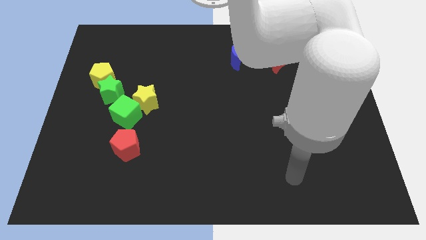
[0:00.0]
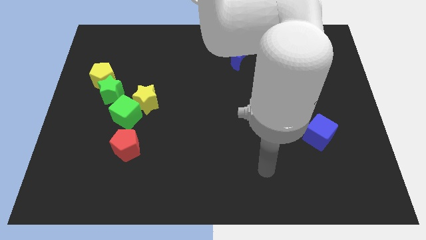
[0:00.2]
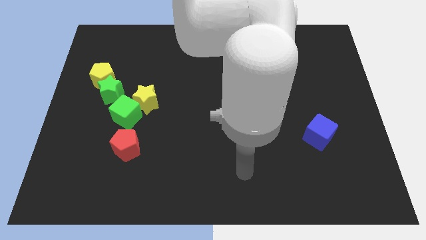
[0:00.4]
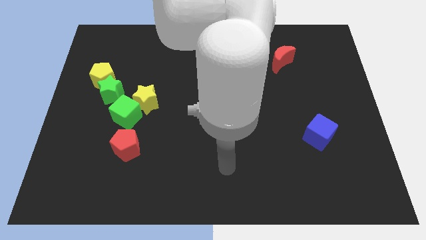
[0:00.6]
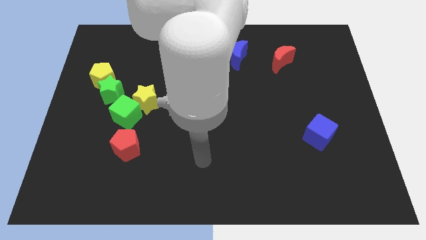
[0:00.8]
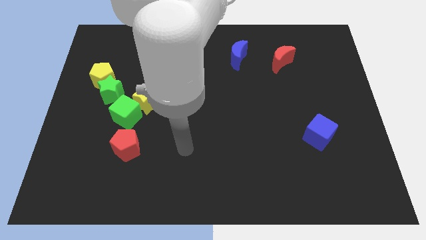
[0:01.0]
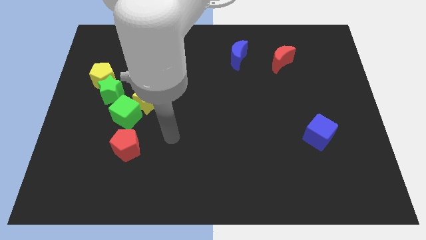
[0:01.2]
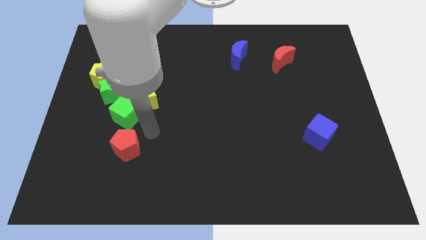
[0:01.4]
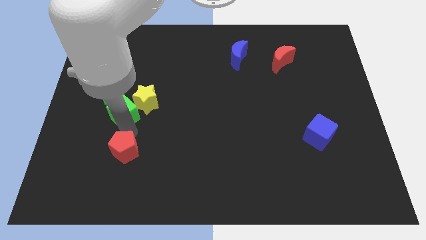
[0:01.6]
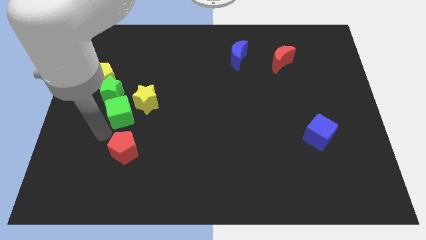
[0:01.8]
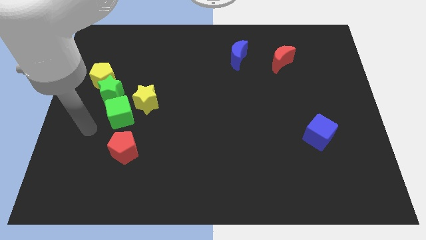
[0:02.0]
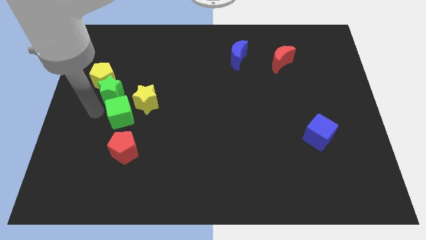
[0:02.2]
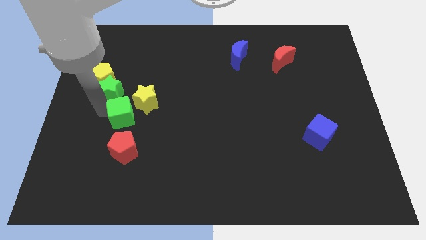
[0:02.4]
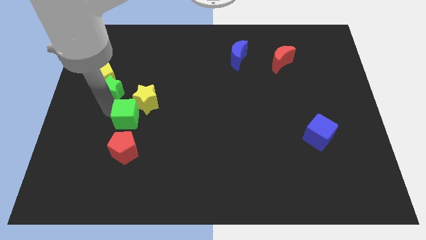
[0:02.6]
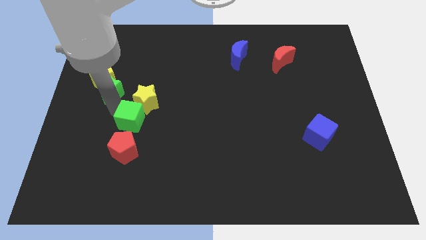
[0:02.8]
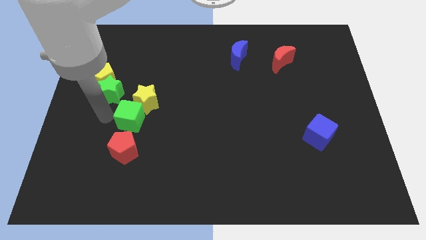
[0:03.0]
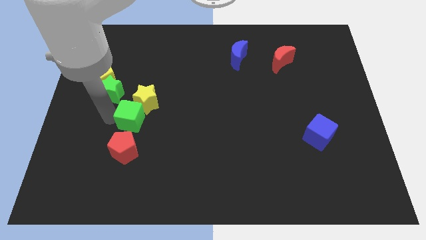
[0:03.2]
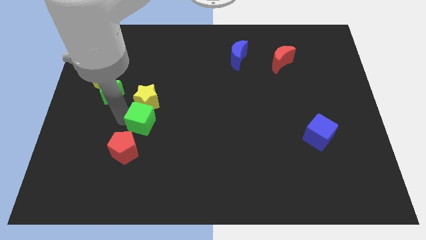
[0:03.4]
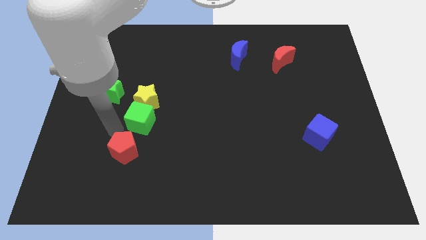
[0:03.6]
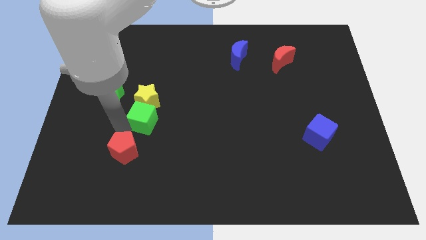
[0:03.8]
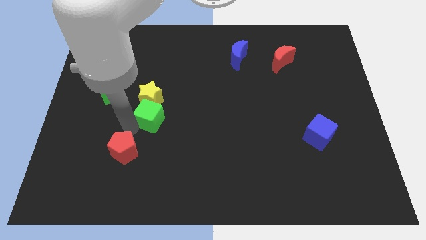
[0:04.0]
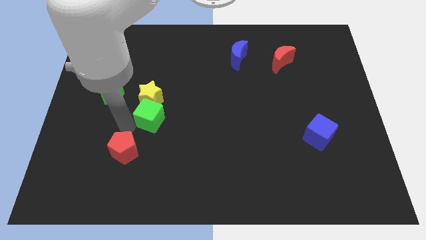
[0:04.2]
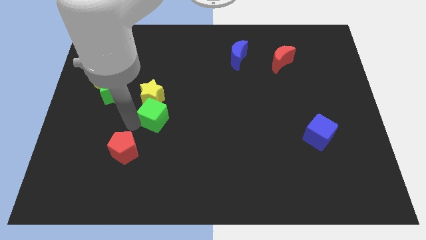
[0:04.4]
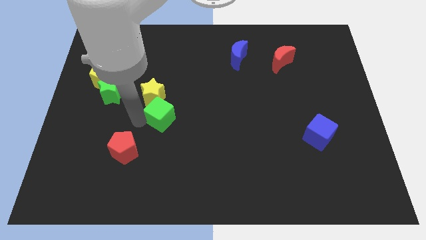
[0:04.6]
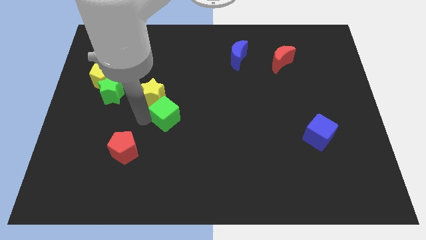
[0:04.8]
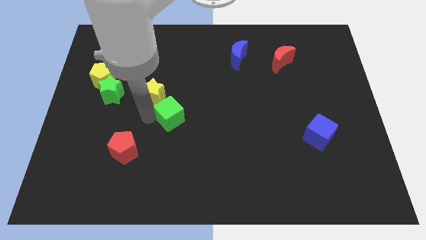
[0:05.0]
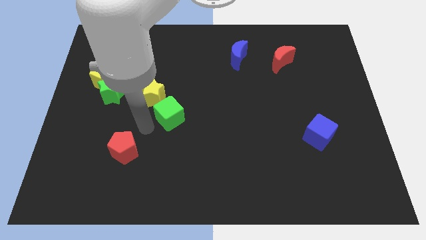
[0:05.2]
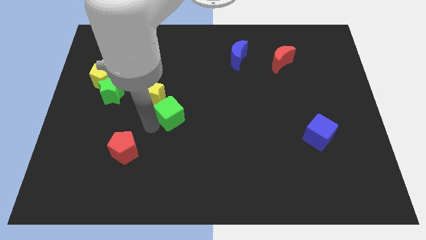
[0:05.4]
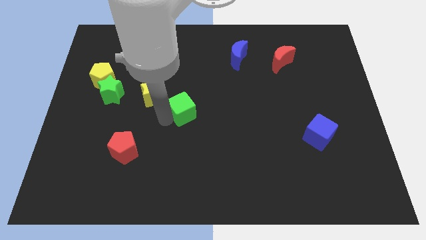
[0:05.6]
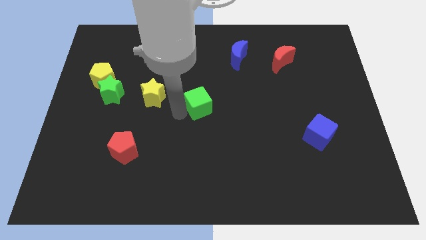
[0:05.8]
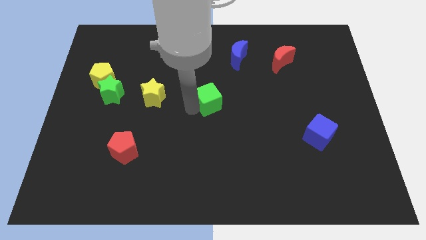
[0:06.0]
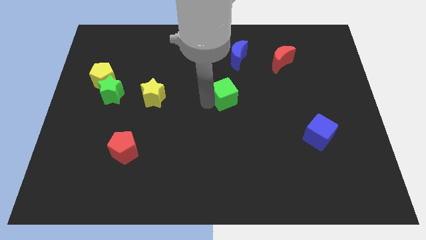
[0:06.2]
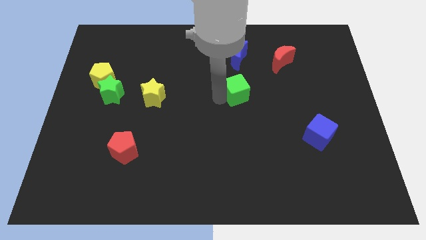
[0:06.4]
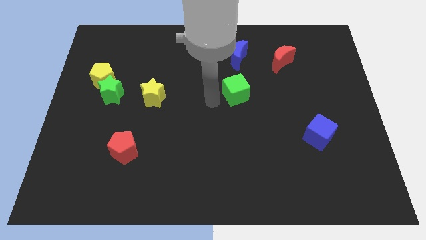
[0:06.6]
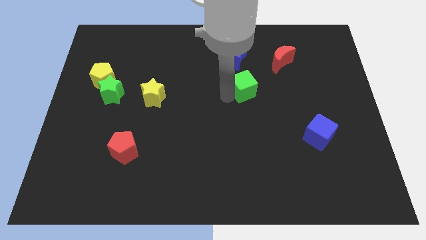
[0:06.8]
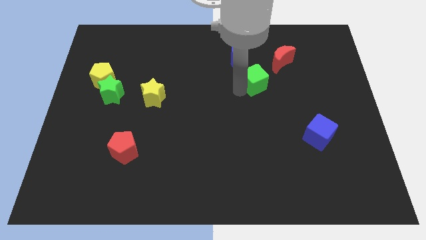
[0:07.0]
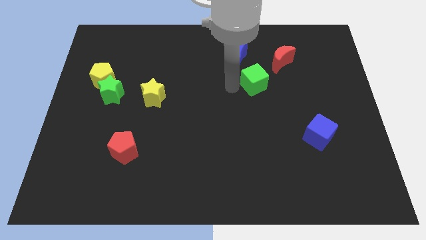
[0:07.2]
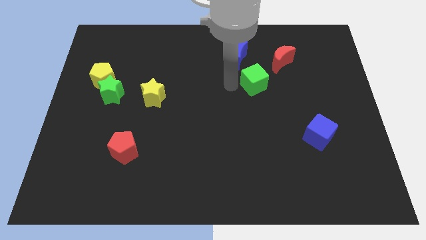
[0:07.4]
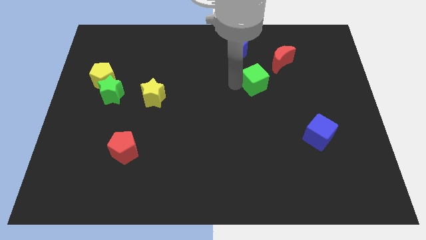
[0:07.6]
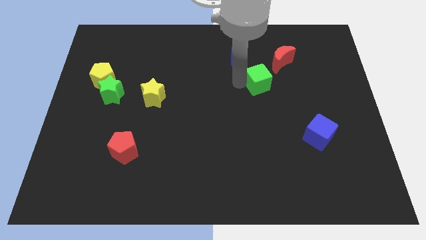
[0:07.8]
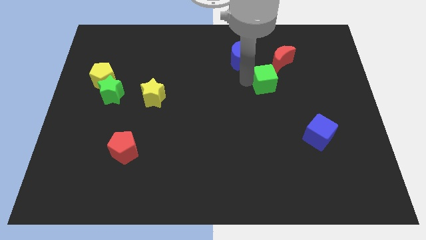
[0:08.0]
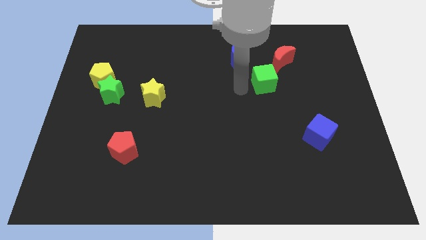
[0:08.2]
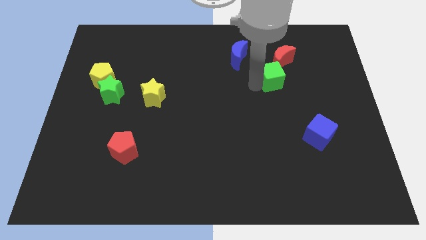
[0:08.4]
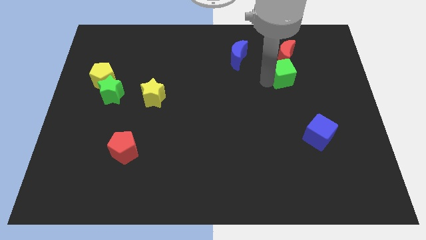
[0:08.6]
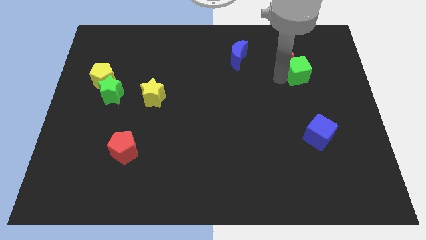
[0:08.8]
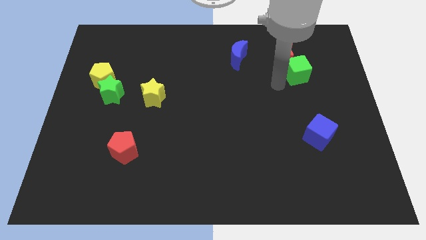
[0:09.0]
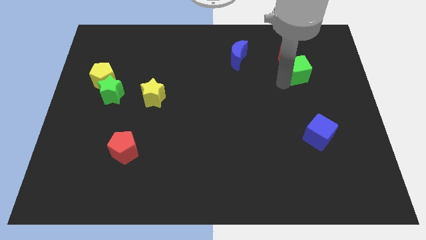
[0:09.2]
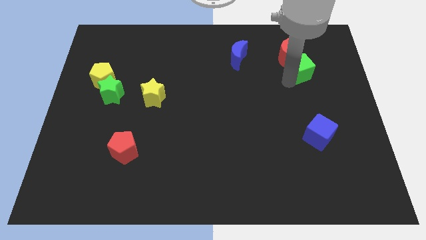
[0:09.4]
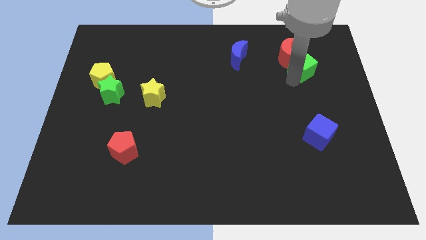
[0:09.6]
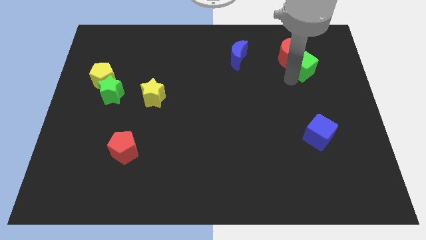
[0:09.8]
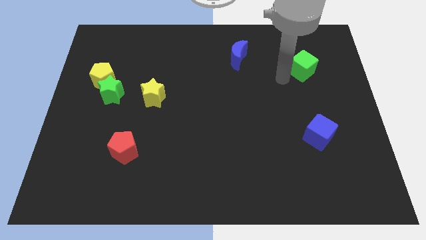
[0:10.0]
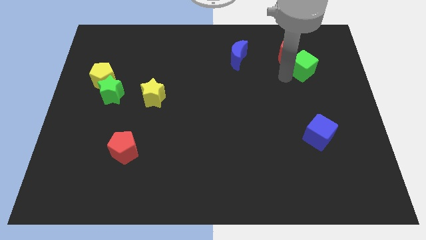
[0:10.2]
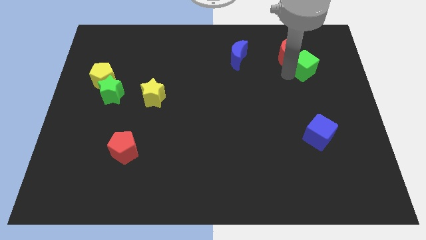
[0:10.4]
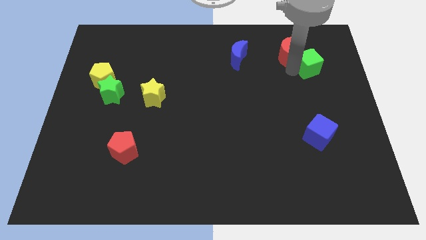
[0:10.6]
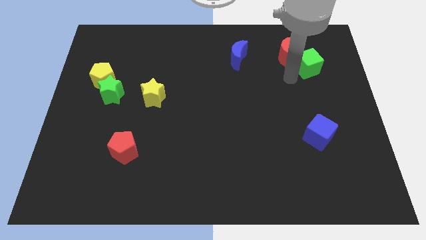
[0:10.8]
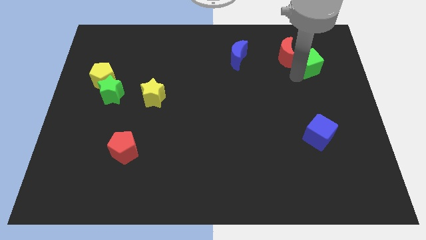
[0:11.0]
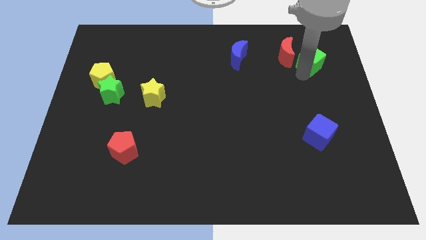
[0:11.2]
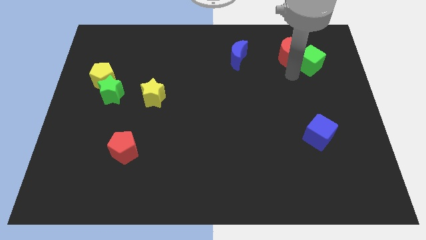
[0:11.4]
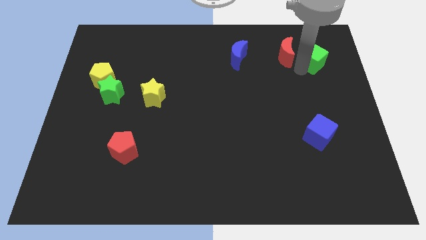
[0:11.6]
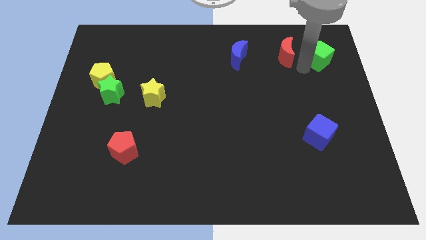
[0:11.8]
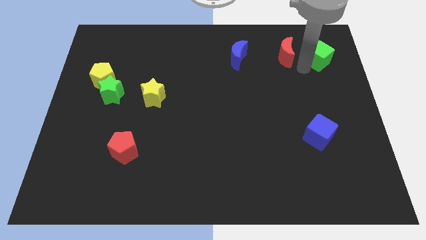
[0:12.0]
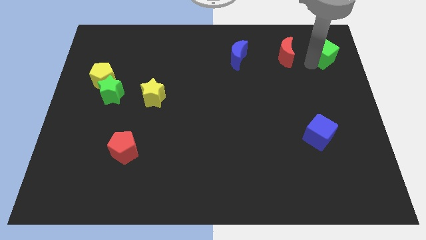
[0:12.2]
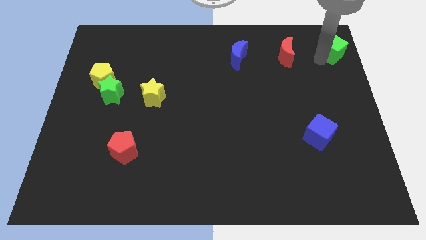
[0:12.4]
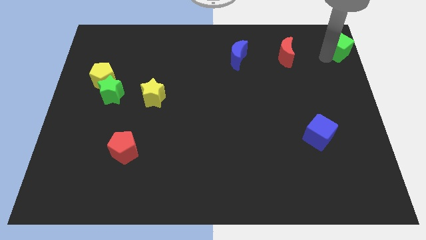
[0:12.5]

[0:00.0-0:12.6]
put the green cube to the upper right corner

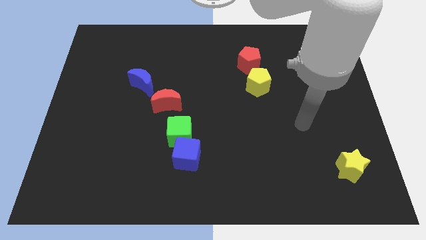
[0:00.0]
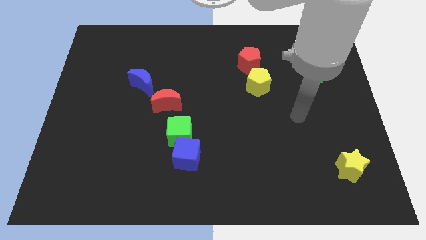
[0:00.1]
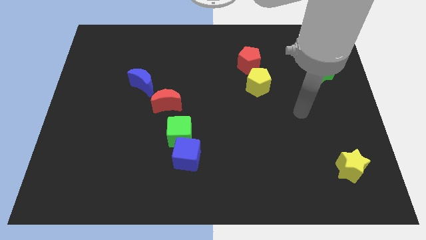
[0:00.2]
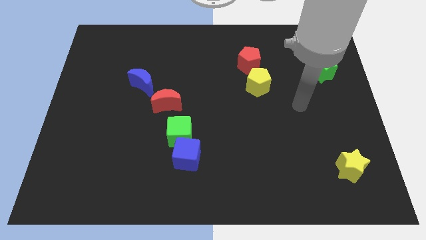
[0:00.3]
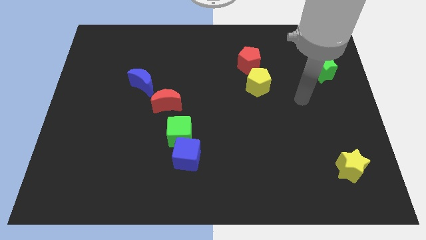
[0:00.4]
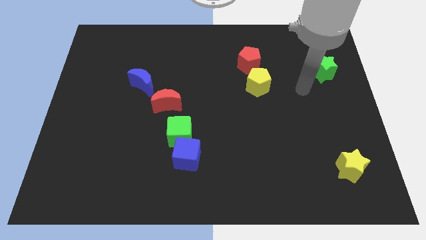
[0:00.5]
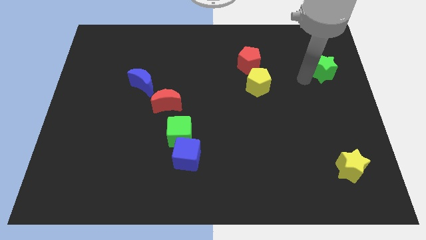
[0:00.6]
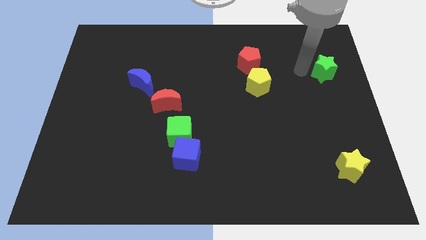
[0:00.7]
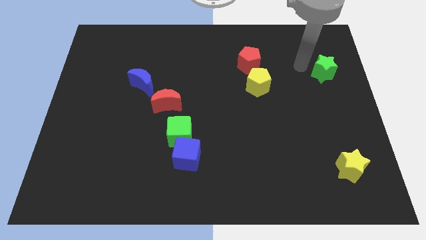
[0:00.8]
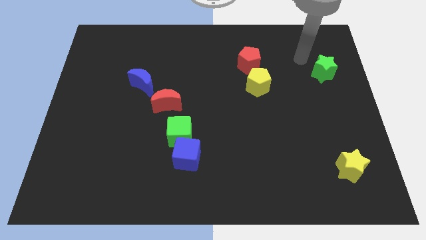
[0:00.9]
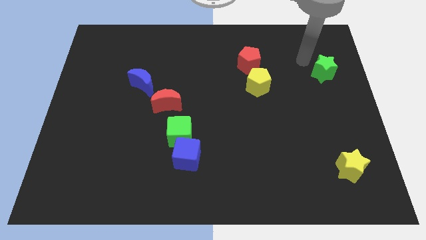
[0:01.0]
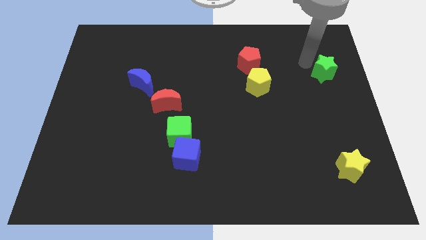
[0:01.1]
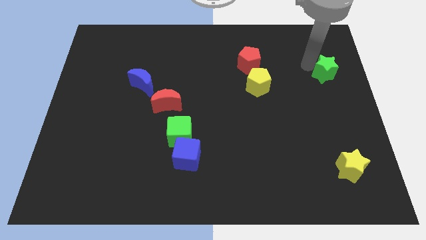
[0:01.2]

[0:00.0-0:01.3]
move the green star to the right side
